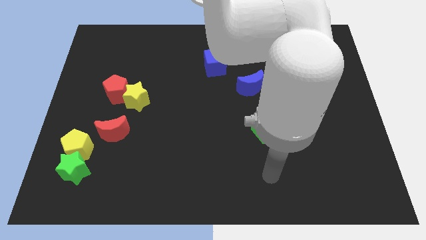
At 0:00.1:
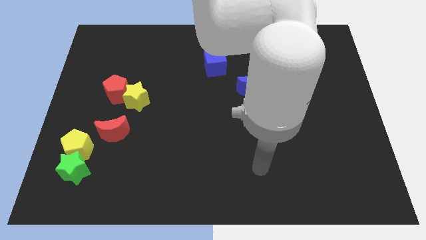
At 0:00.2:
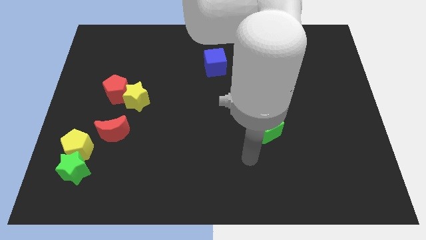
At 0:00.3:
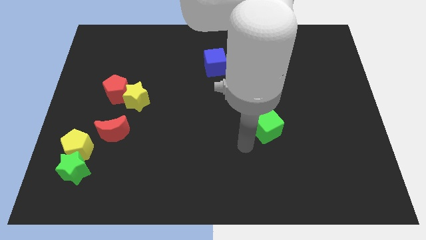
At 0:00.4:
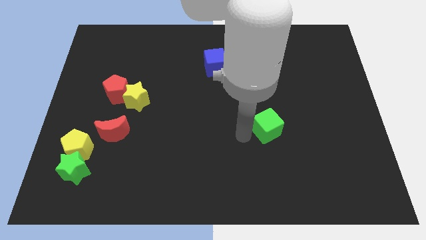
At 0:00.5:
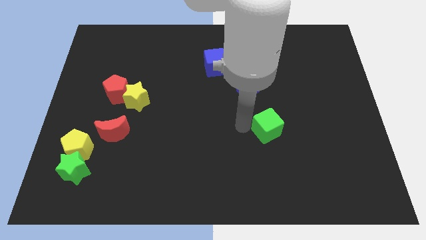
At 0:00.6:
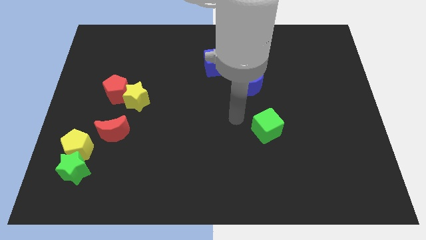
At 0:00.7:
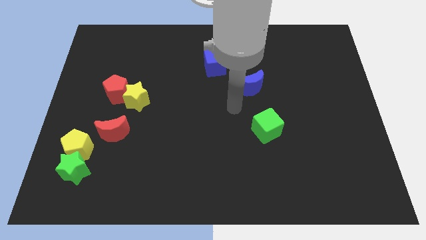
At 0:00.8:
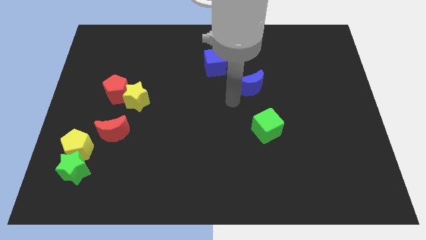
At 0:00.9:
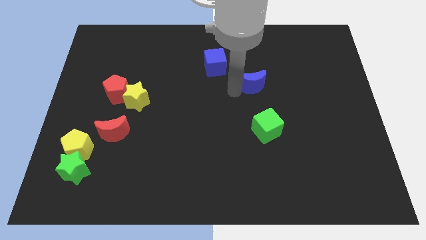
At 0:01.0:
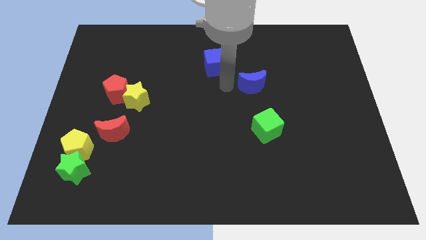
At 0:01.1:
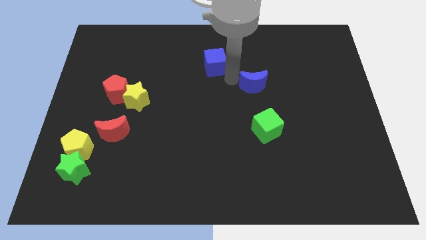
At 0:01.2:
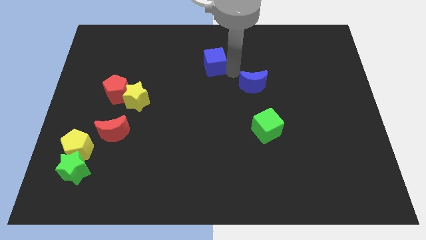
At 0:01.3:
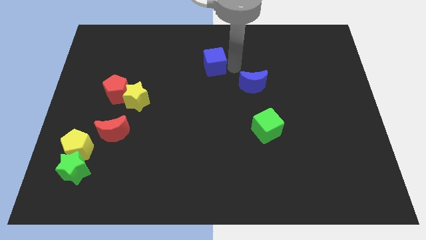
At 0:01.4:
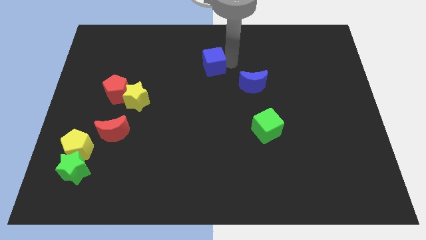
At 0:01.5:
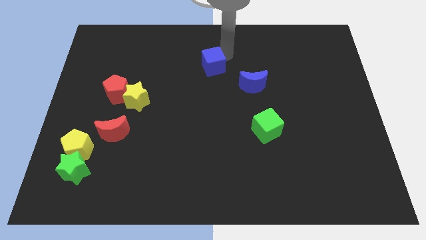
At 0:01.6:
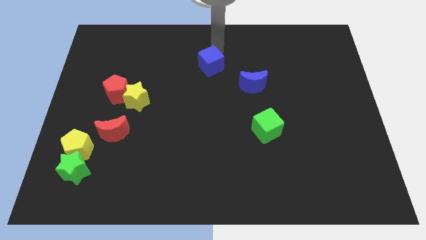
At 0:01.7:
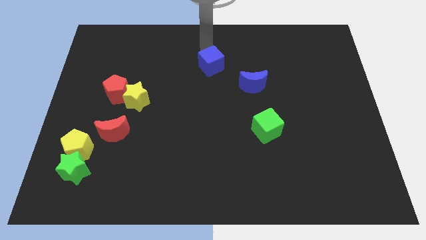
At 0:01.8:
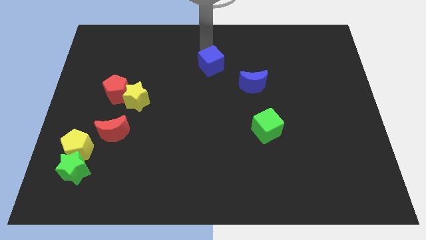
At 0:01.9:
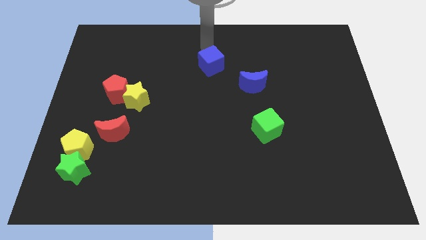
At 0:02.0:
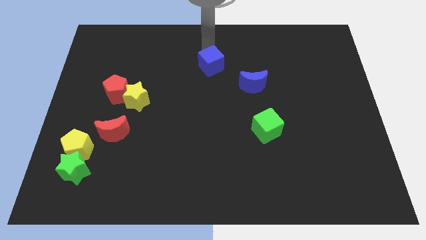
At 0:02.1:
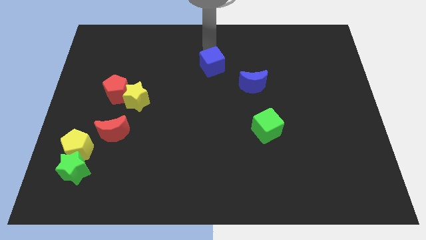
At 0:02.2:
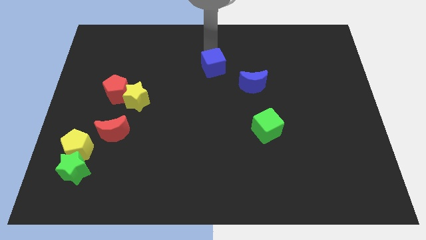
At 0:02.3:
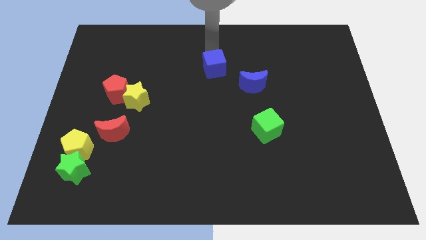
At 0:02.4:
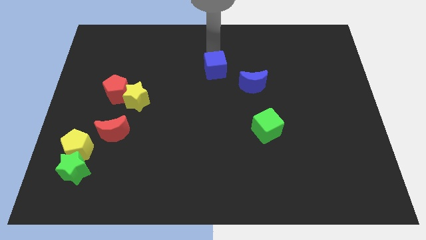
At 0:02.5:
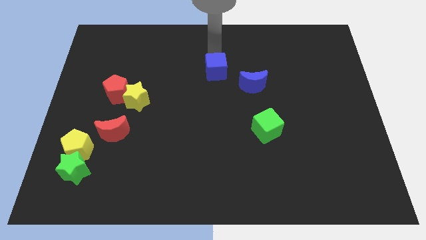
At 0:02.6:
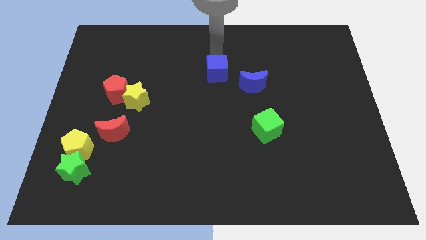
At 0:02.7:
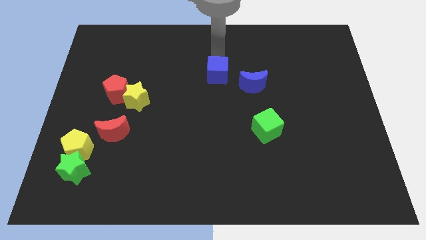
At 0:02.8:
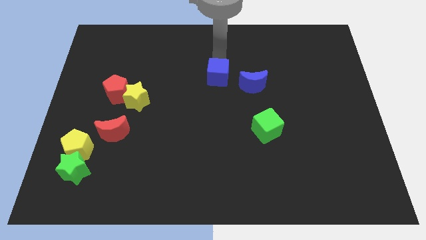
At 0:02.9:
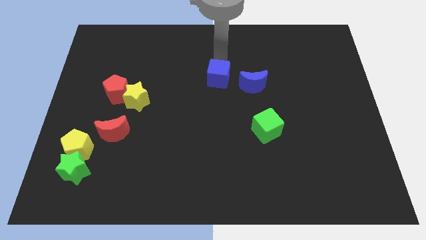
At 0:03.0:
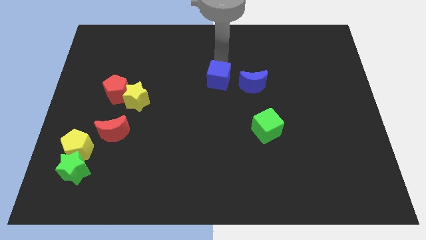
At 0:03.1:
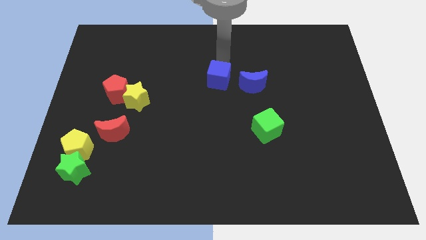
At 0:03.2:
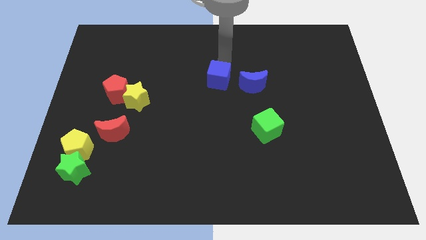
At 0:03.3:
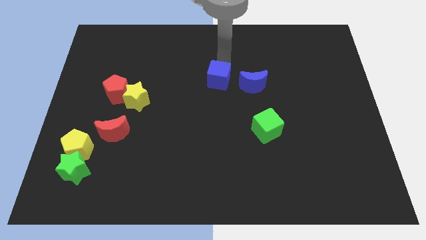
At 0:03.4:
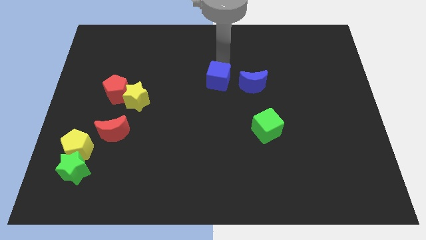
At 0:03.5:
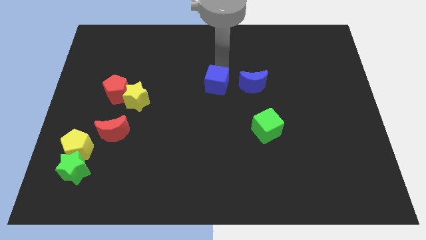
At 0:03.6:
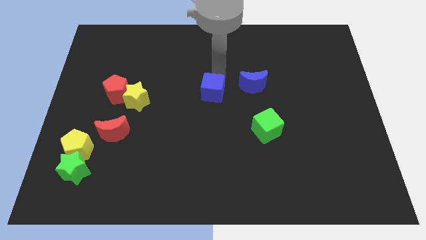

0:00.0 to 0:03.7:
push the blue cube downwards slightly

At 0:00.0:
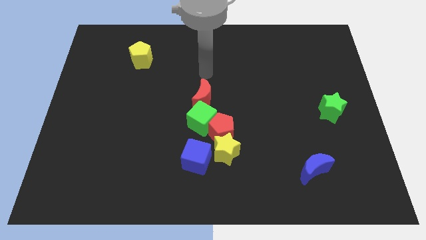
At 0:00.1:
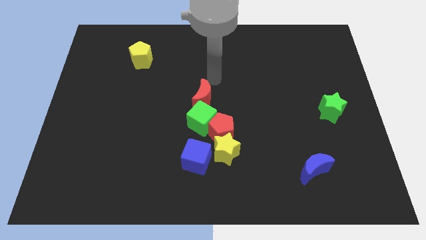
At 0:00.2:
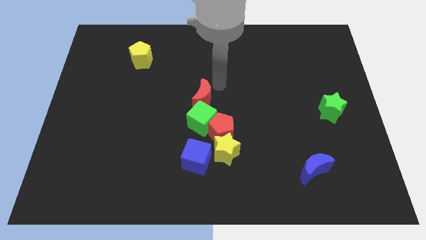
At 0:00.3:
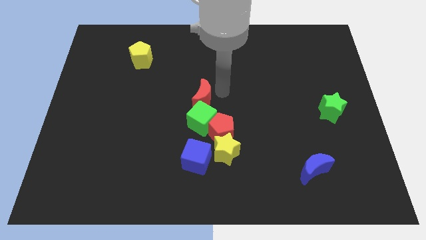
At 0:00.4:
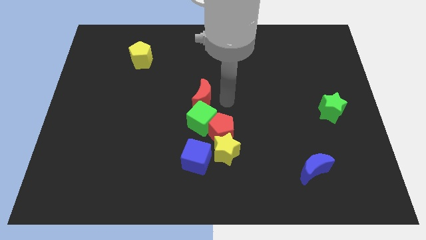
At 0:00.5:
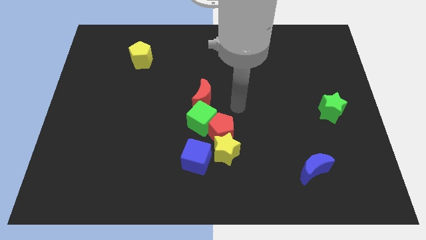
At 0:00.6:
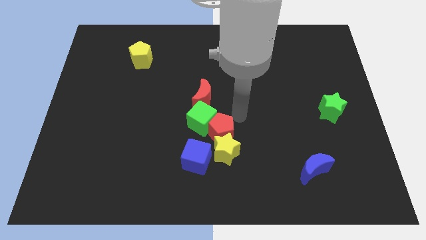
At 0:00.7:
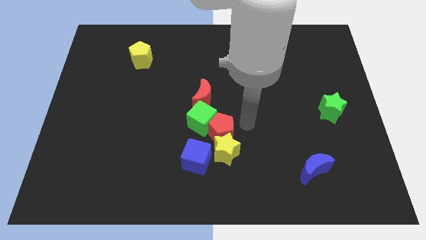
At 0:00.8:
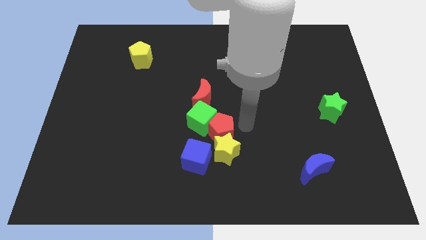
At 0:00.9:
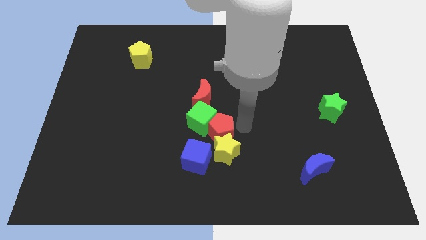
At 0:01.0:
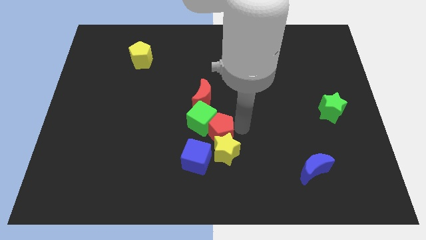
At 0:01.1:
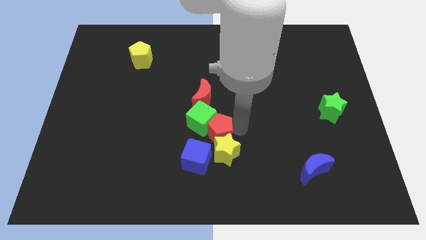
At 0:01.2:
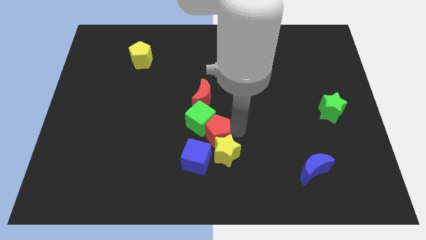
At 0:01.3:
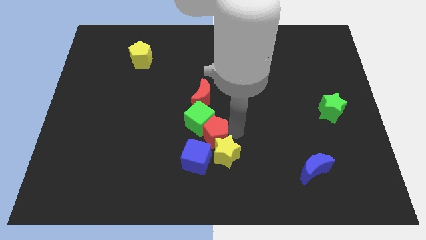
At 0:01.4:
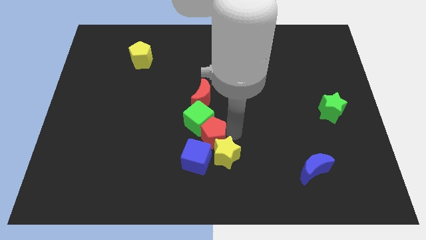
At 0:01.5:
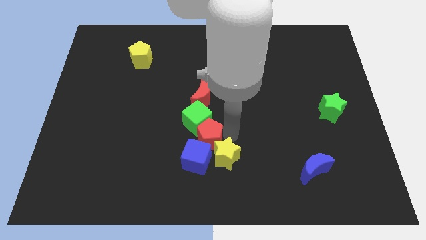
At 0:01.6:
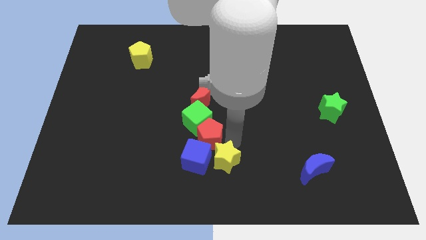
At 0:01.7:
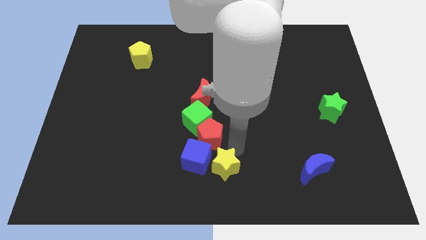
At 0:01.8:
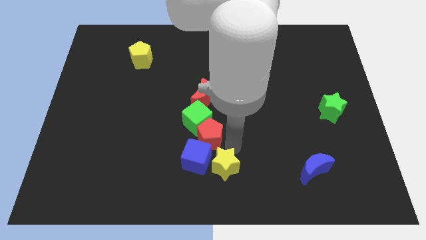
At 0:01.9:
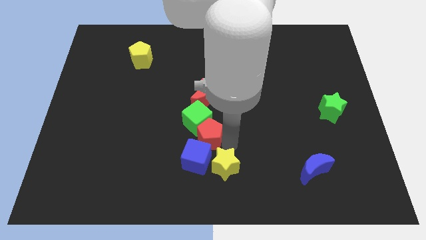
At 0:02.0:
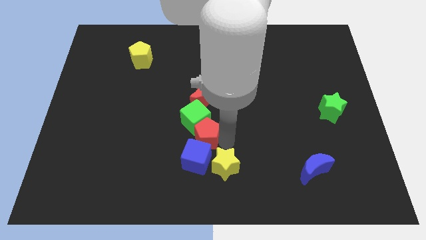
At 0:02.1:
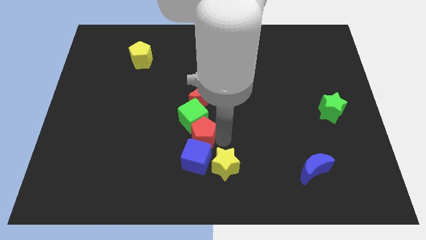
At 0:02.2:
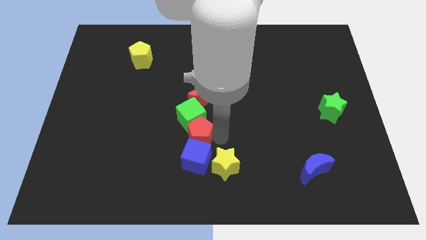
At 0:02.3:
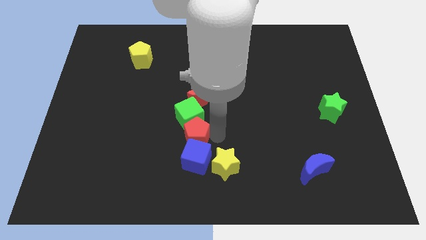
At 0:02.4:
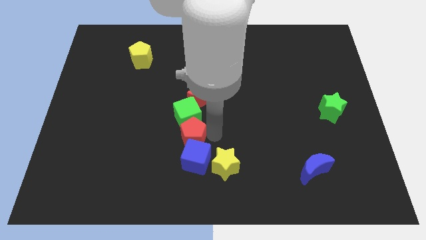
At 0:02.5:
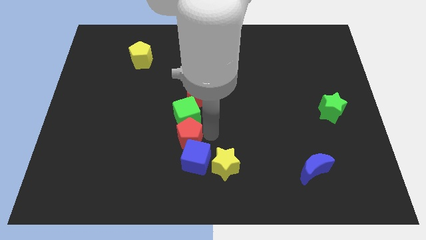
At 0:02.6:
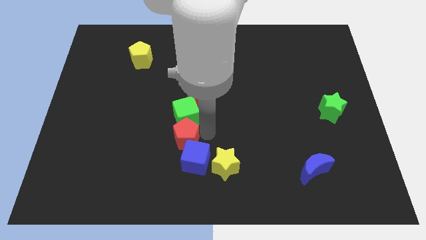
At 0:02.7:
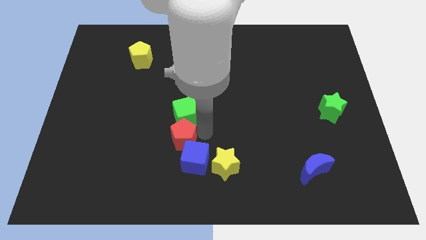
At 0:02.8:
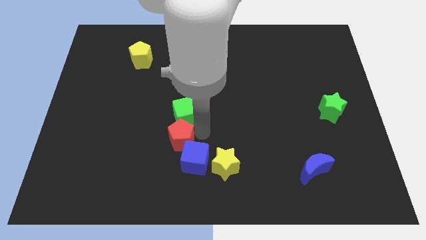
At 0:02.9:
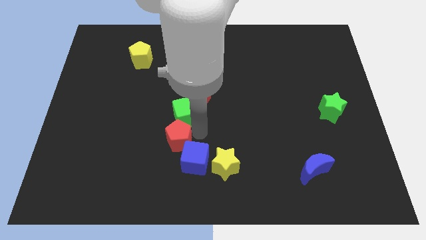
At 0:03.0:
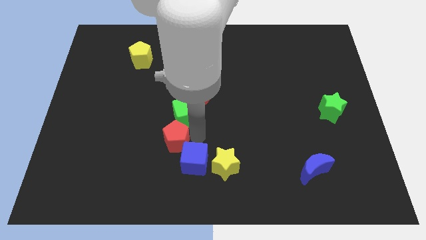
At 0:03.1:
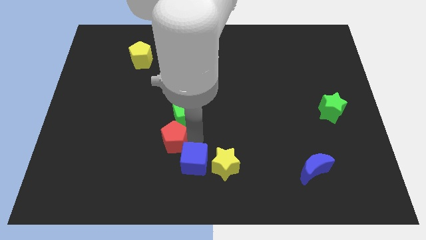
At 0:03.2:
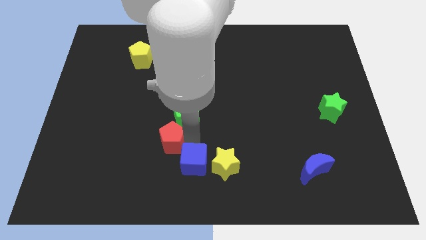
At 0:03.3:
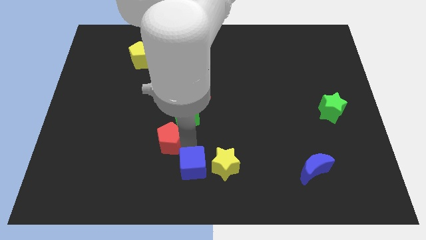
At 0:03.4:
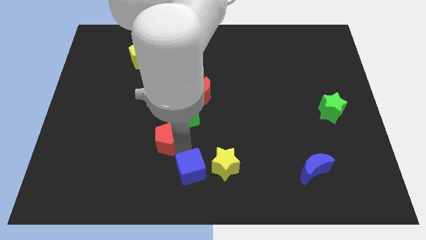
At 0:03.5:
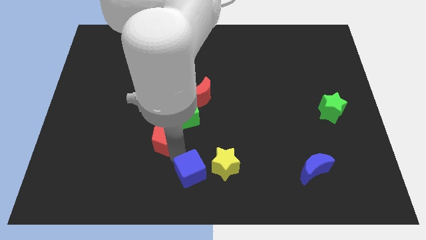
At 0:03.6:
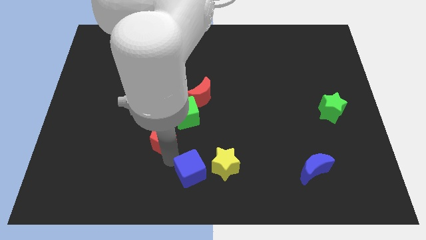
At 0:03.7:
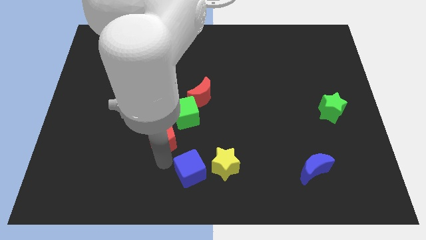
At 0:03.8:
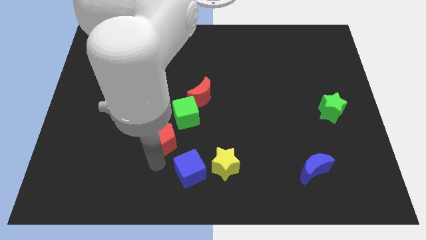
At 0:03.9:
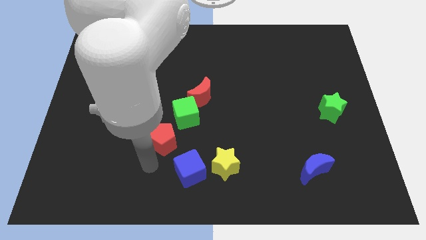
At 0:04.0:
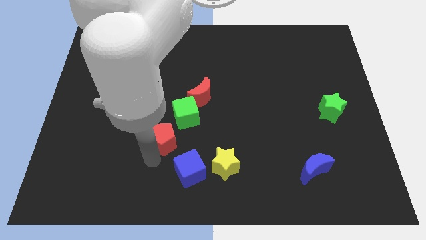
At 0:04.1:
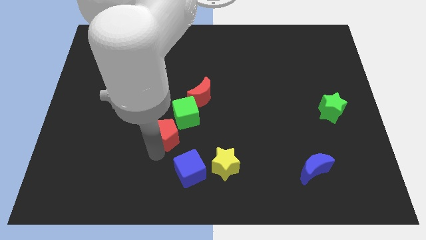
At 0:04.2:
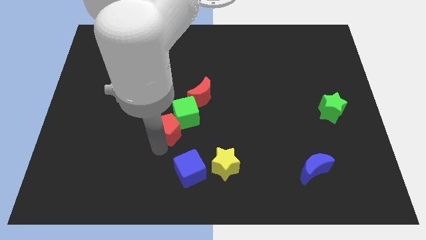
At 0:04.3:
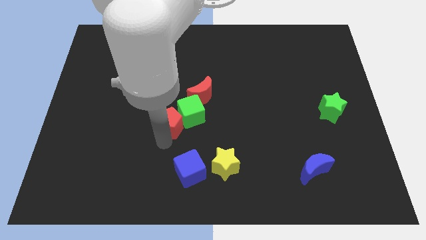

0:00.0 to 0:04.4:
slide the red pentagon a bit up and left diagonally
